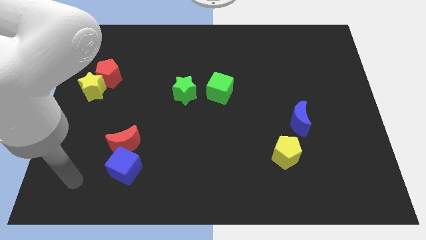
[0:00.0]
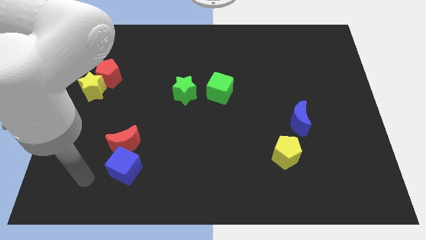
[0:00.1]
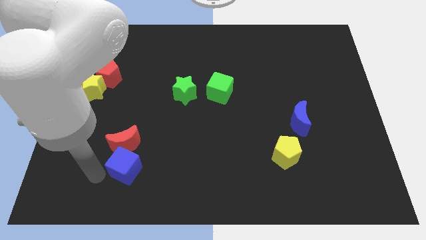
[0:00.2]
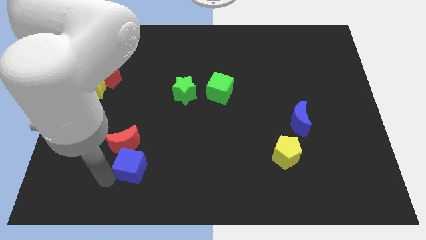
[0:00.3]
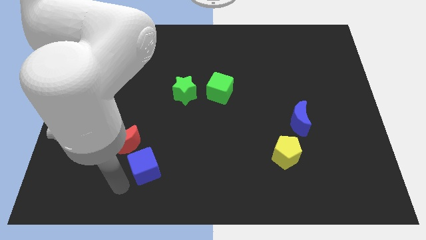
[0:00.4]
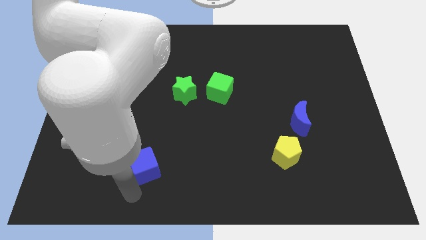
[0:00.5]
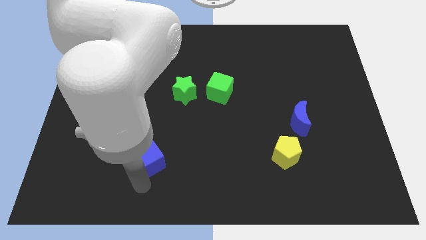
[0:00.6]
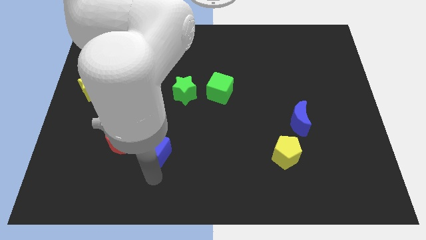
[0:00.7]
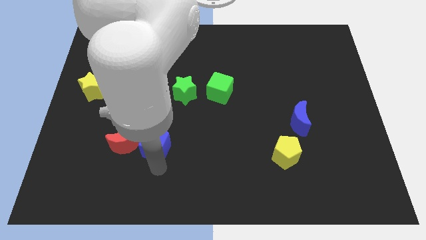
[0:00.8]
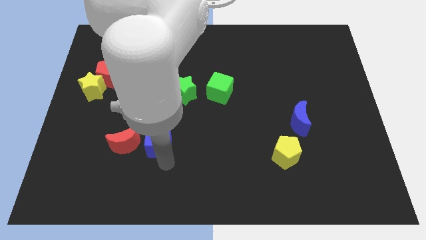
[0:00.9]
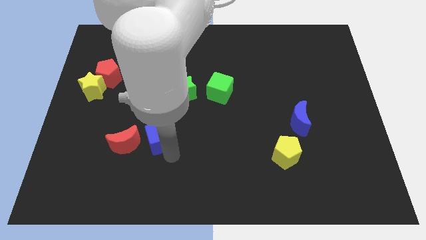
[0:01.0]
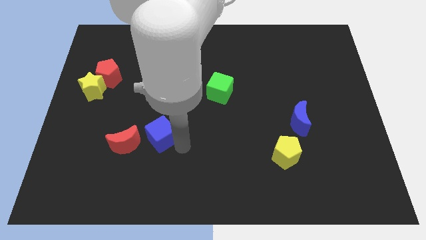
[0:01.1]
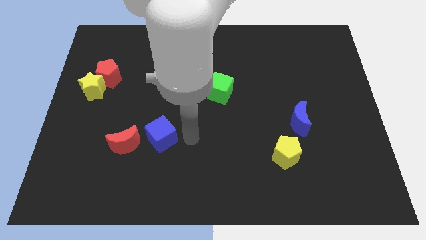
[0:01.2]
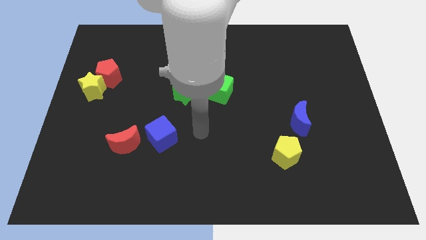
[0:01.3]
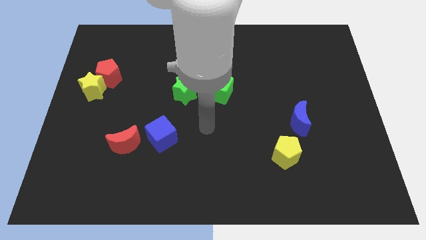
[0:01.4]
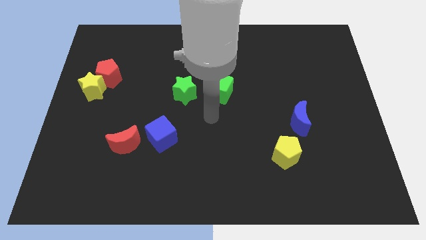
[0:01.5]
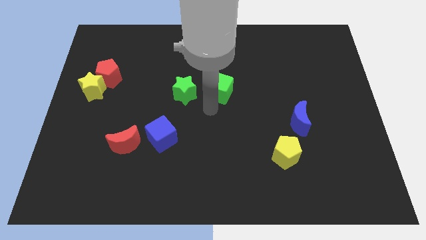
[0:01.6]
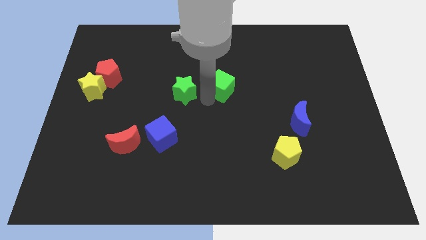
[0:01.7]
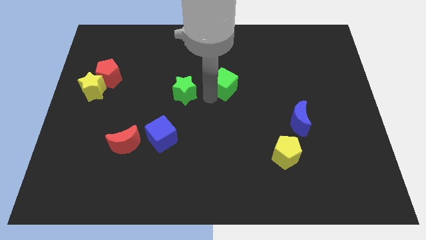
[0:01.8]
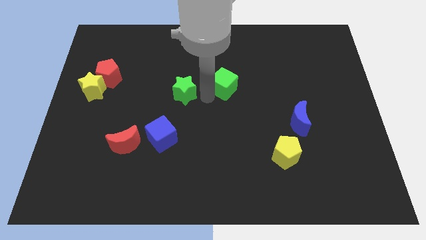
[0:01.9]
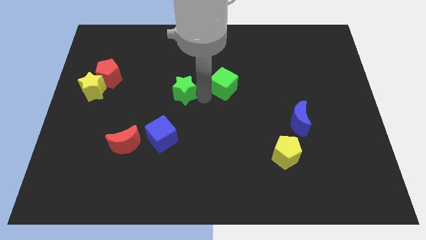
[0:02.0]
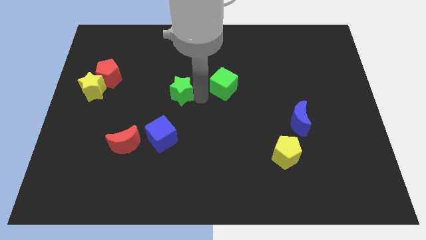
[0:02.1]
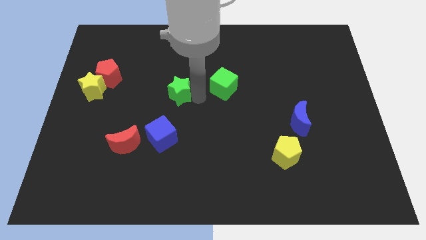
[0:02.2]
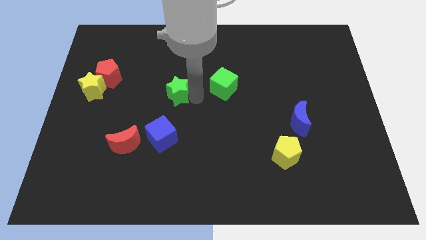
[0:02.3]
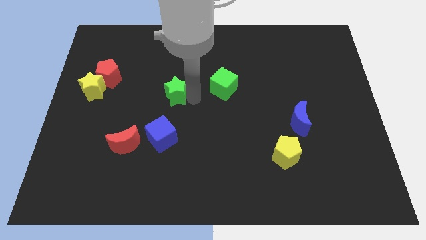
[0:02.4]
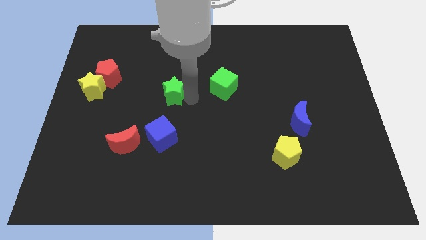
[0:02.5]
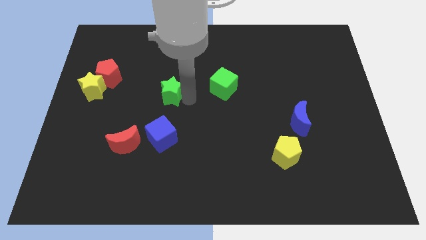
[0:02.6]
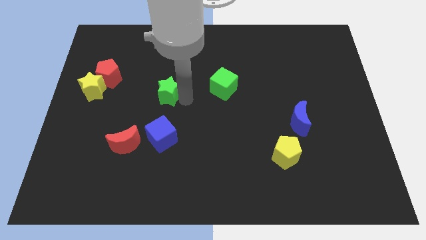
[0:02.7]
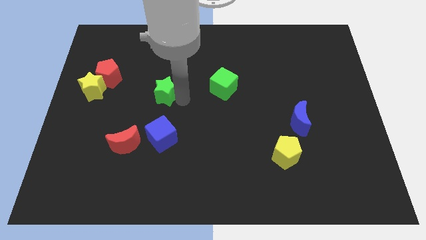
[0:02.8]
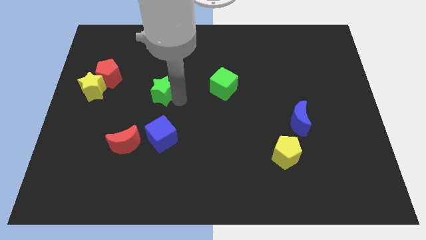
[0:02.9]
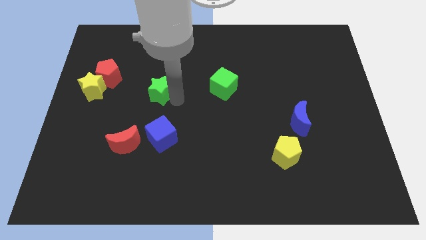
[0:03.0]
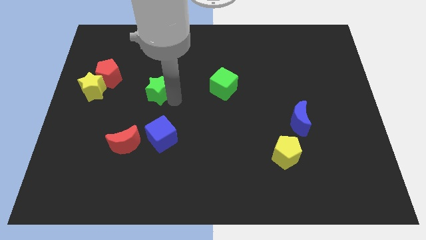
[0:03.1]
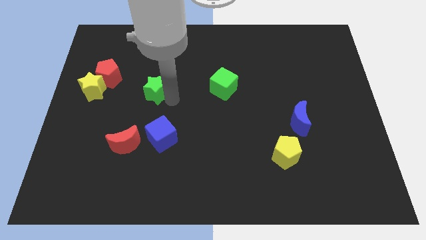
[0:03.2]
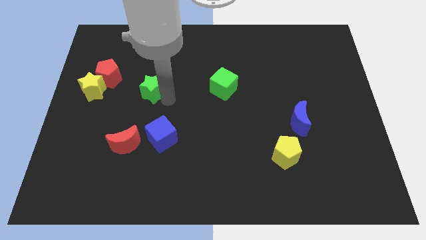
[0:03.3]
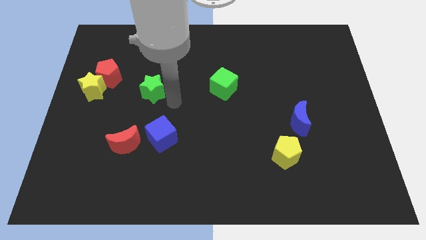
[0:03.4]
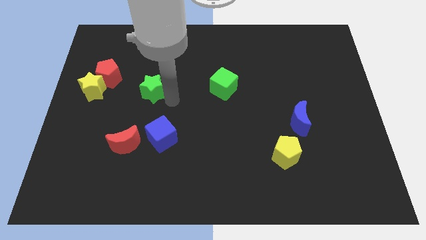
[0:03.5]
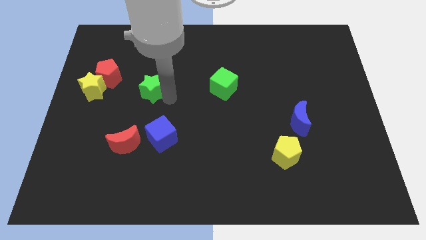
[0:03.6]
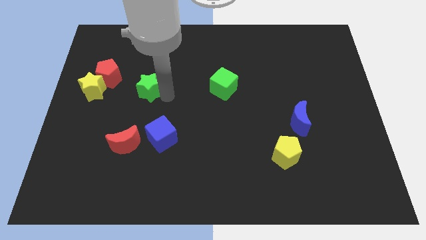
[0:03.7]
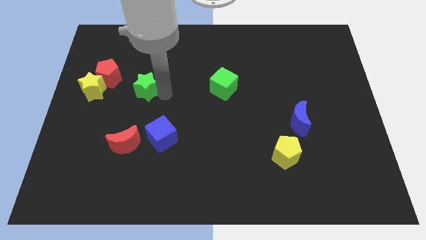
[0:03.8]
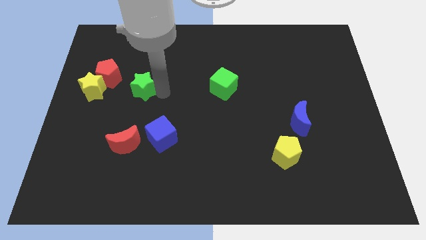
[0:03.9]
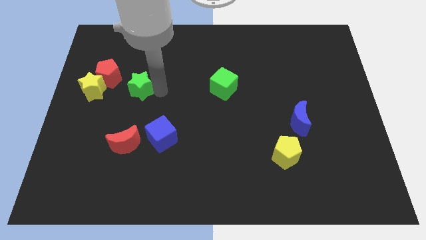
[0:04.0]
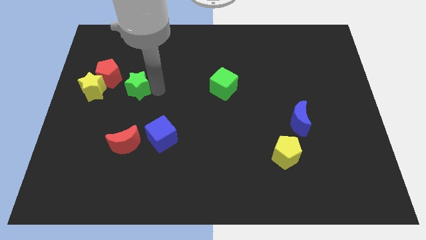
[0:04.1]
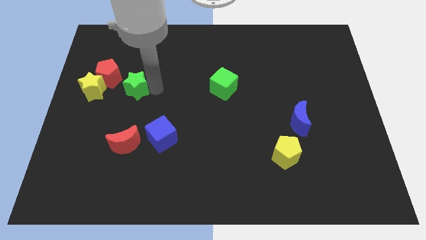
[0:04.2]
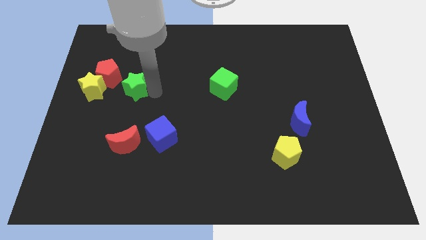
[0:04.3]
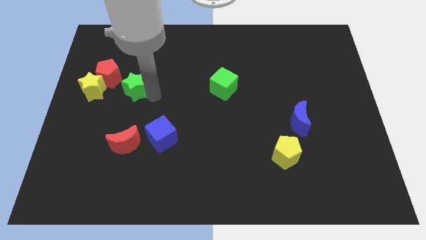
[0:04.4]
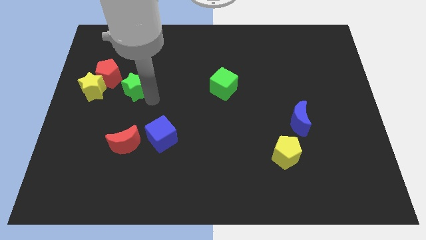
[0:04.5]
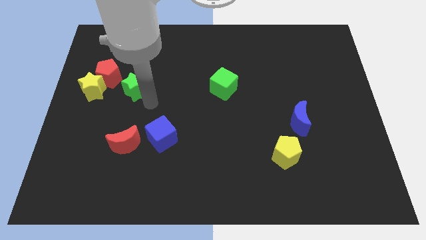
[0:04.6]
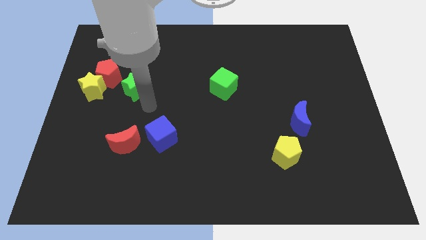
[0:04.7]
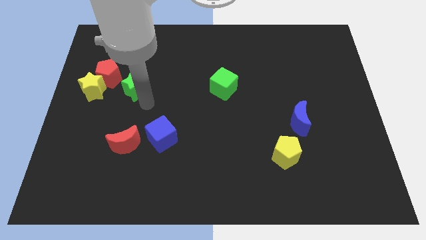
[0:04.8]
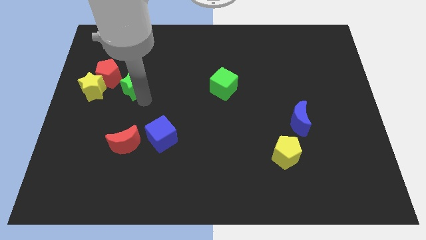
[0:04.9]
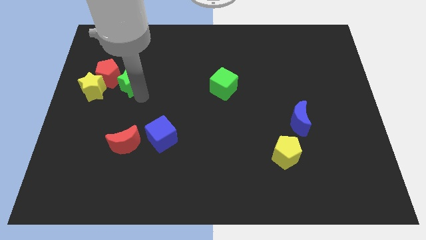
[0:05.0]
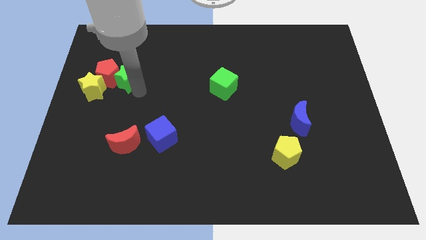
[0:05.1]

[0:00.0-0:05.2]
push the green star to the red pentagon

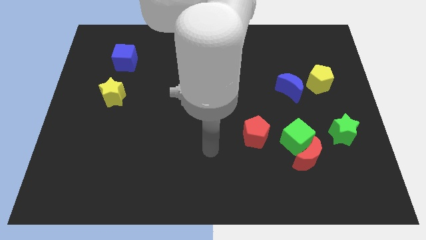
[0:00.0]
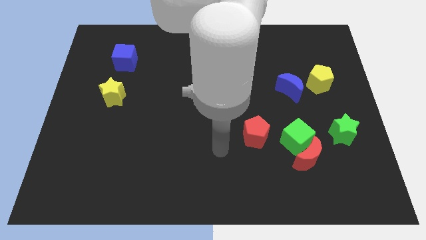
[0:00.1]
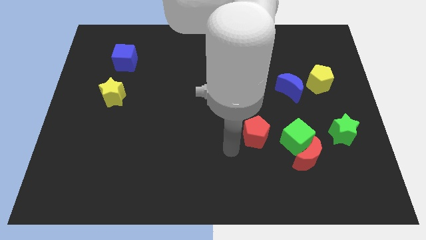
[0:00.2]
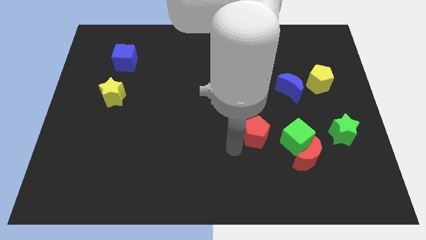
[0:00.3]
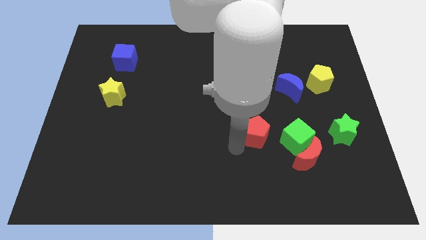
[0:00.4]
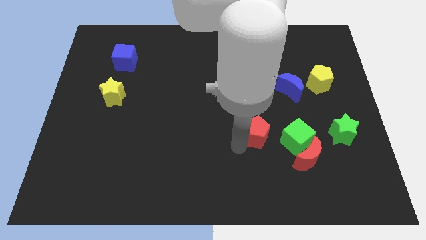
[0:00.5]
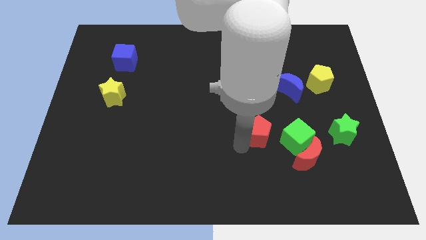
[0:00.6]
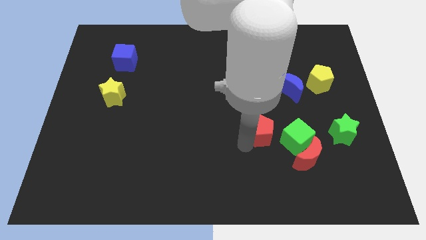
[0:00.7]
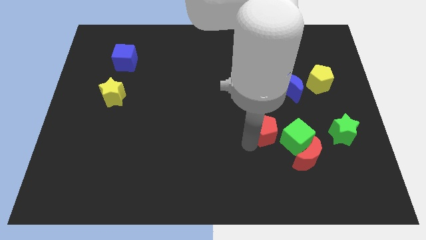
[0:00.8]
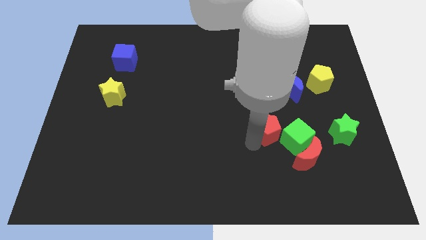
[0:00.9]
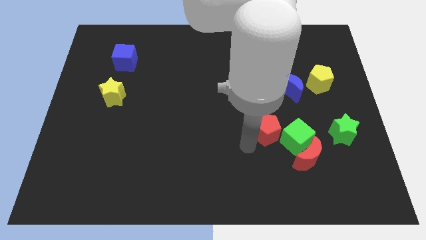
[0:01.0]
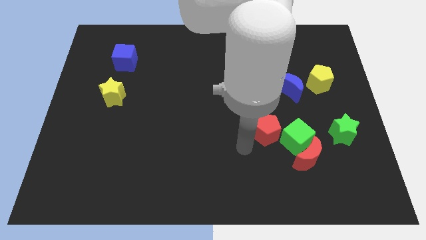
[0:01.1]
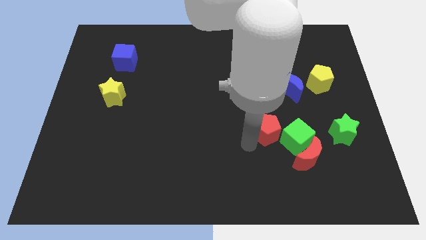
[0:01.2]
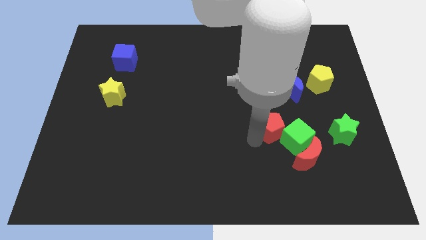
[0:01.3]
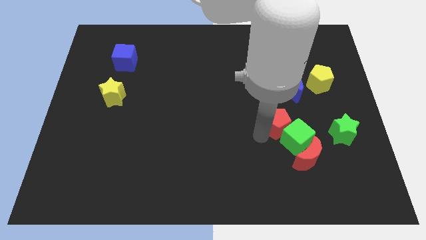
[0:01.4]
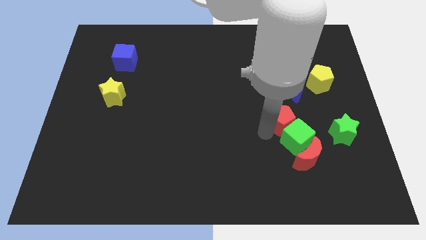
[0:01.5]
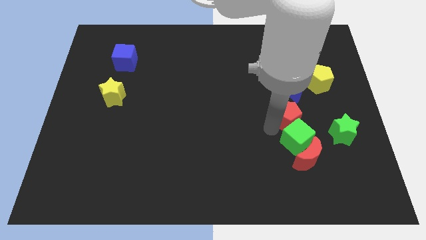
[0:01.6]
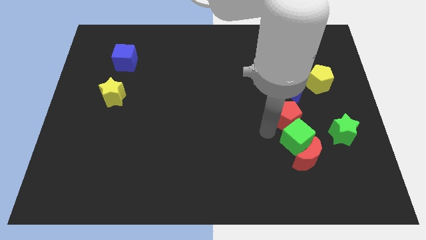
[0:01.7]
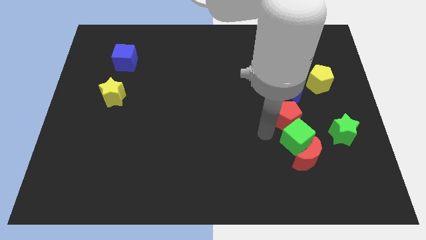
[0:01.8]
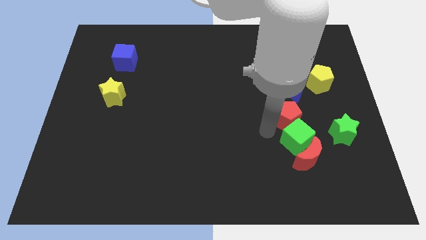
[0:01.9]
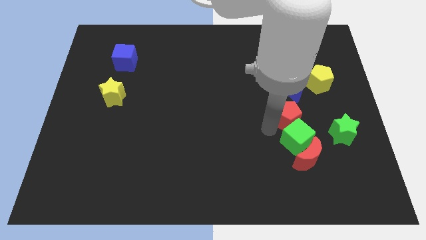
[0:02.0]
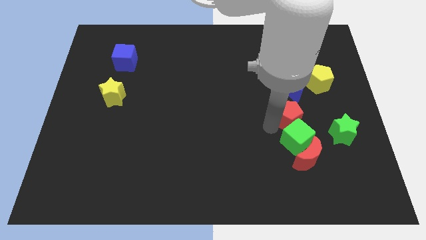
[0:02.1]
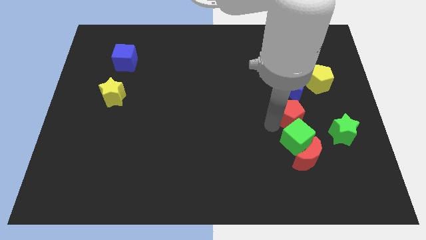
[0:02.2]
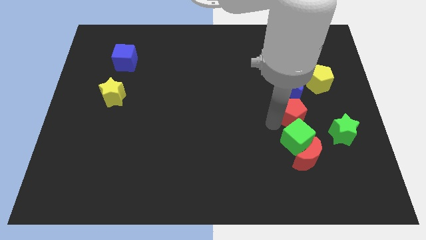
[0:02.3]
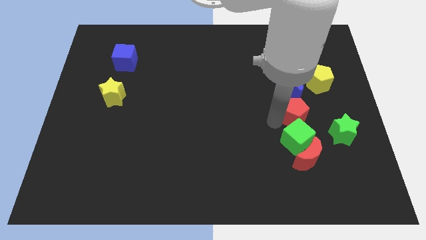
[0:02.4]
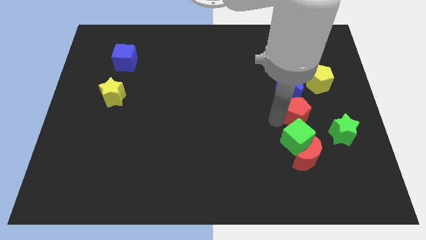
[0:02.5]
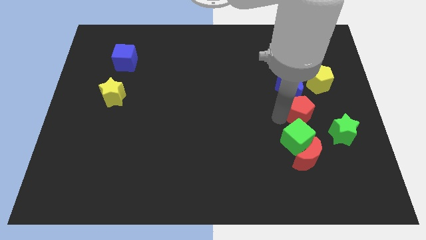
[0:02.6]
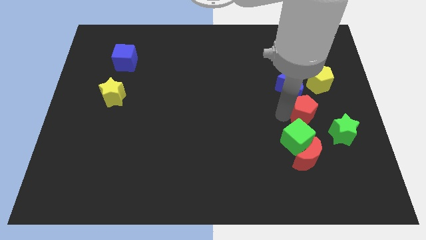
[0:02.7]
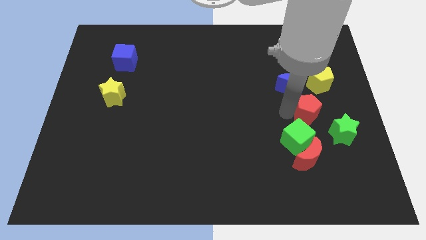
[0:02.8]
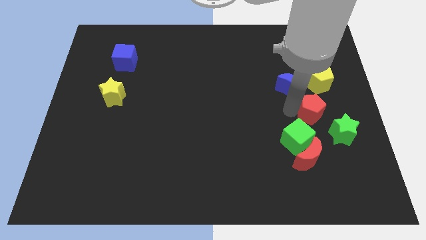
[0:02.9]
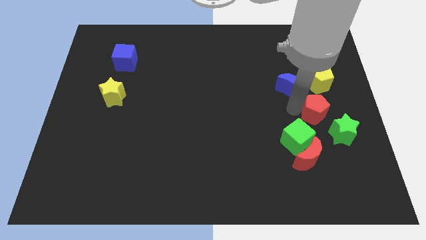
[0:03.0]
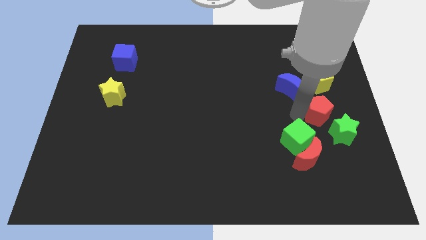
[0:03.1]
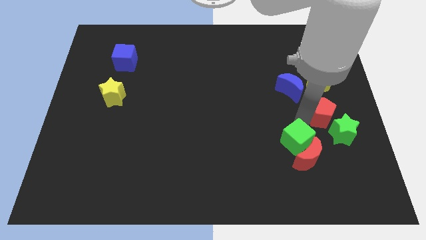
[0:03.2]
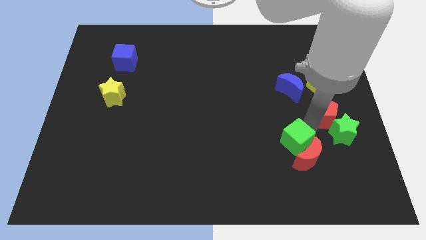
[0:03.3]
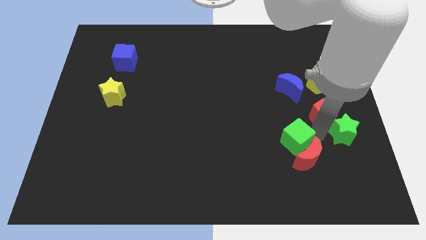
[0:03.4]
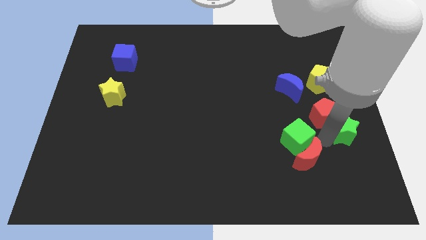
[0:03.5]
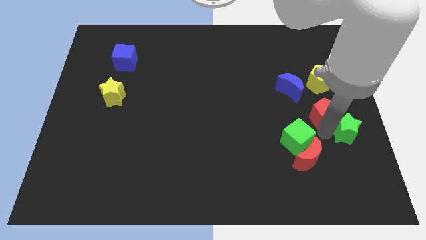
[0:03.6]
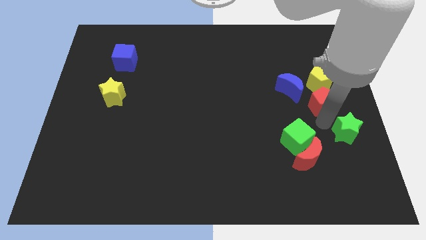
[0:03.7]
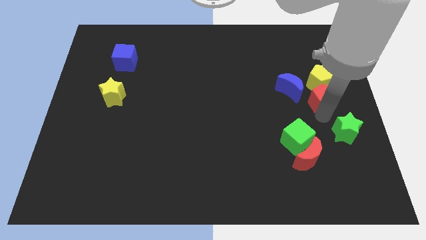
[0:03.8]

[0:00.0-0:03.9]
put the red pentagon to the yellow pentagon
